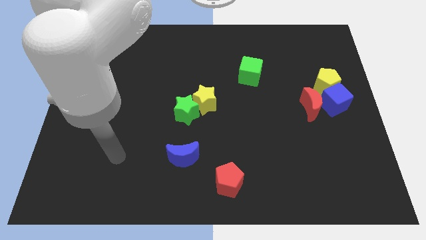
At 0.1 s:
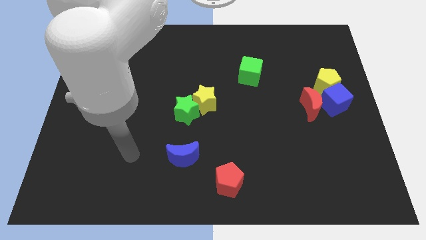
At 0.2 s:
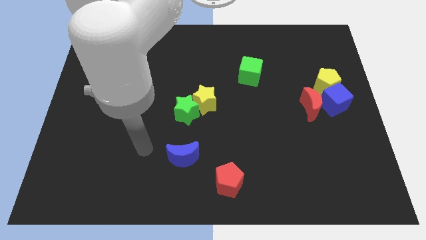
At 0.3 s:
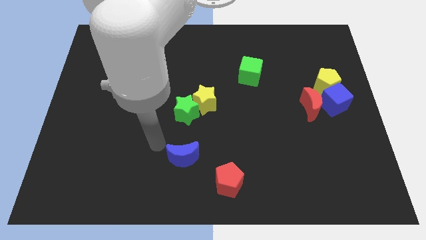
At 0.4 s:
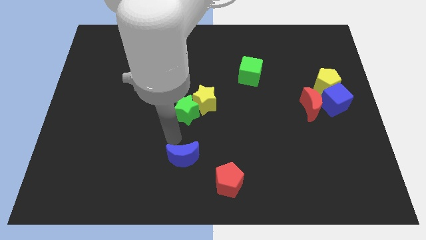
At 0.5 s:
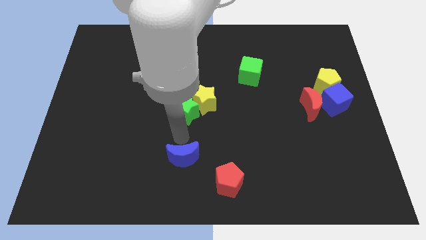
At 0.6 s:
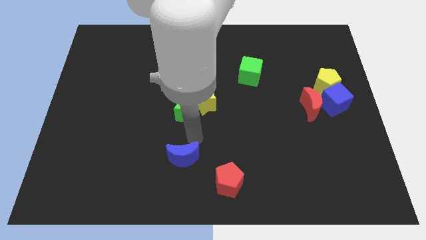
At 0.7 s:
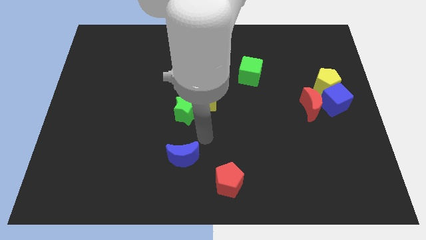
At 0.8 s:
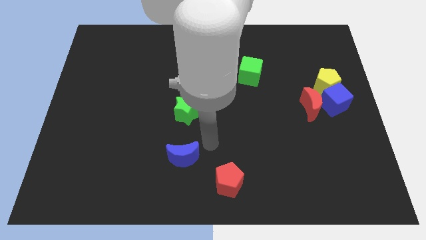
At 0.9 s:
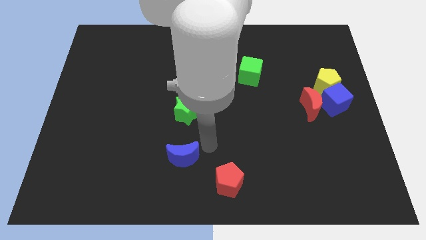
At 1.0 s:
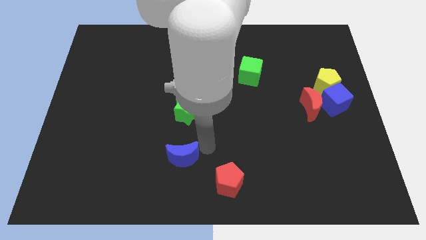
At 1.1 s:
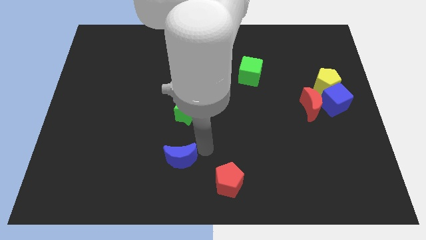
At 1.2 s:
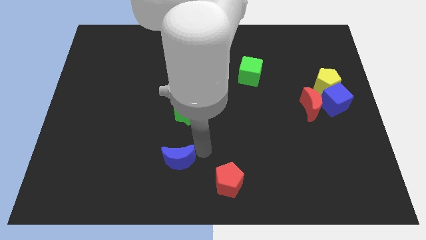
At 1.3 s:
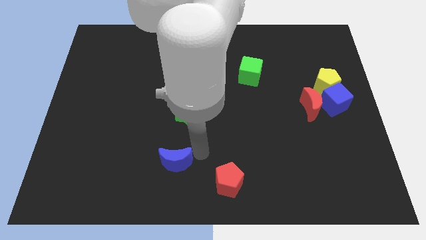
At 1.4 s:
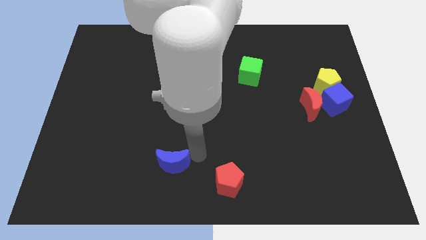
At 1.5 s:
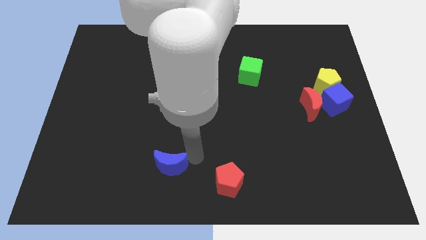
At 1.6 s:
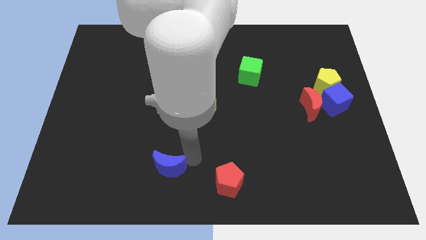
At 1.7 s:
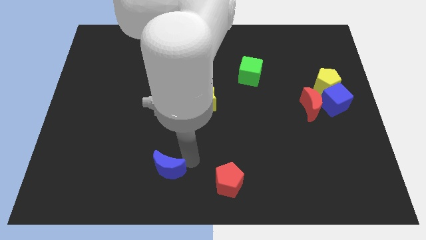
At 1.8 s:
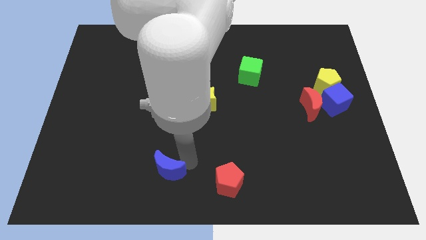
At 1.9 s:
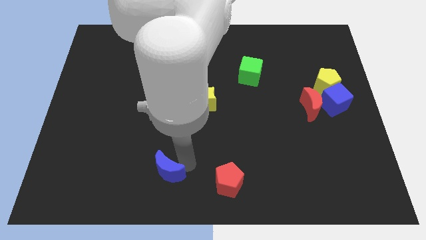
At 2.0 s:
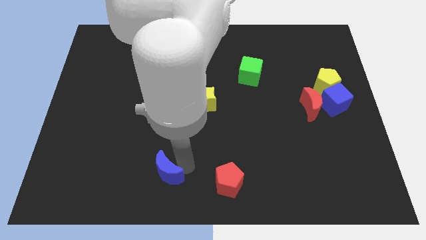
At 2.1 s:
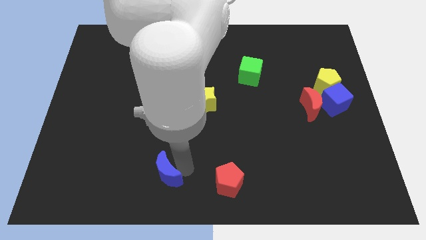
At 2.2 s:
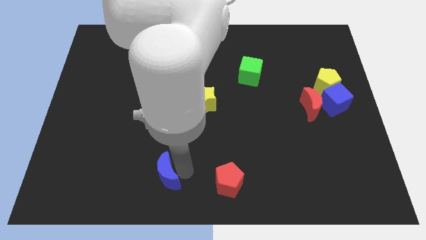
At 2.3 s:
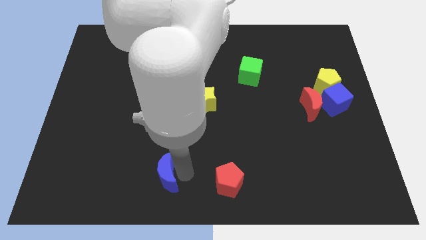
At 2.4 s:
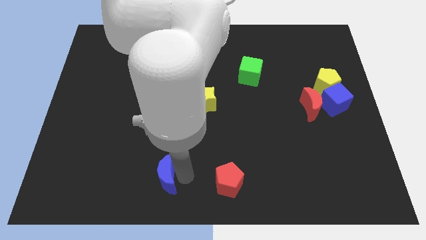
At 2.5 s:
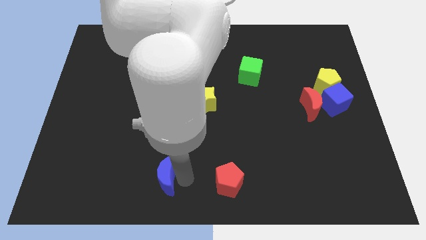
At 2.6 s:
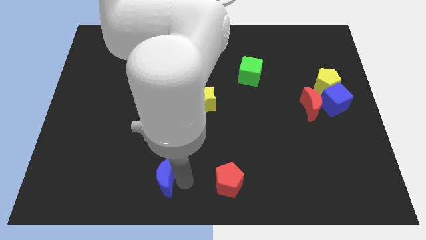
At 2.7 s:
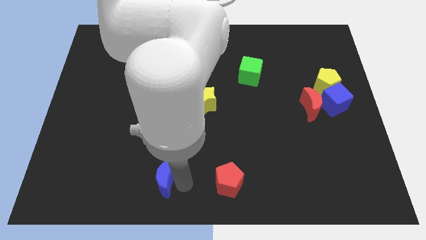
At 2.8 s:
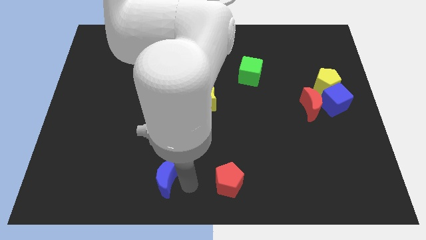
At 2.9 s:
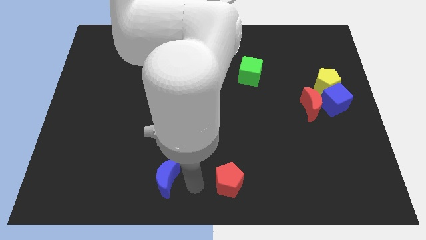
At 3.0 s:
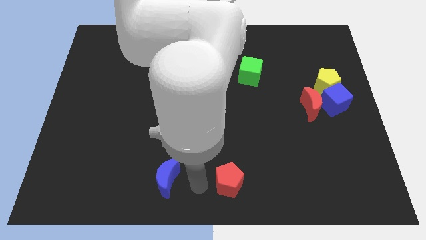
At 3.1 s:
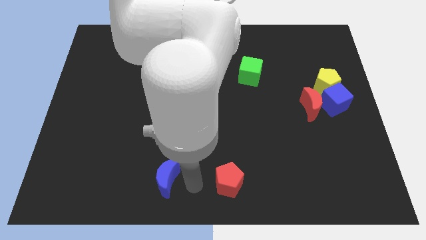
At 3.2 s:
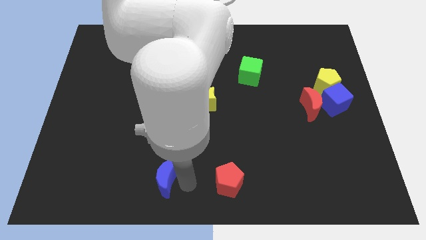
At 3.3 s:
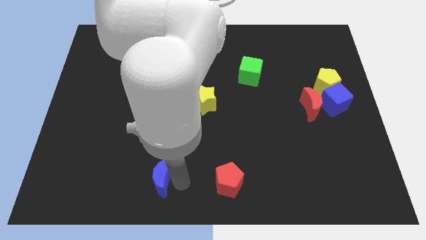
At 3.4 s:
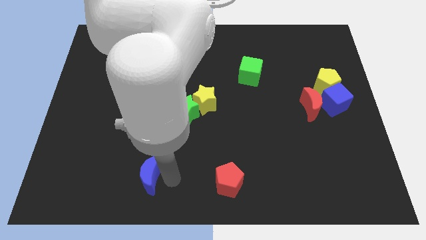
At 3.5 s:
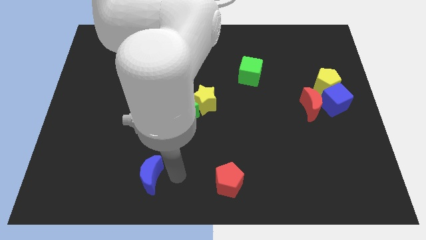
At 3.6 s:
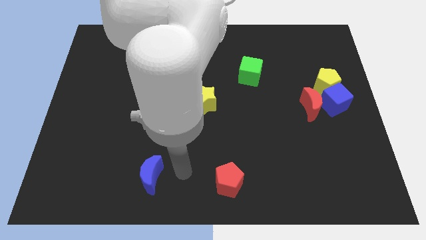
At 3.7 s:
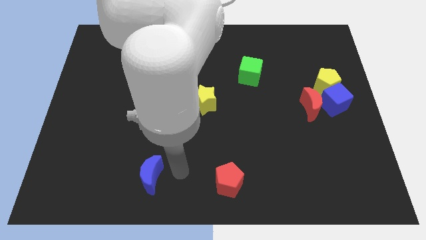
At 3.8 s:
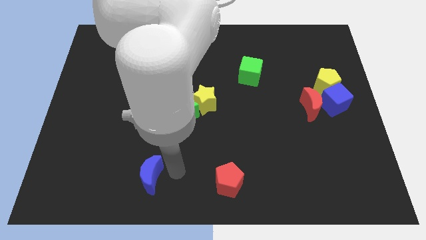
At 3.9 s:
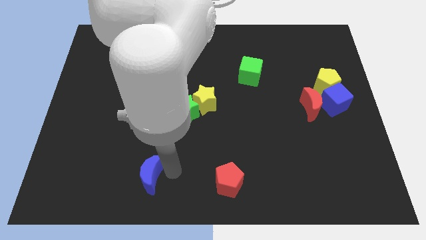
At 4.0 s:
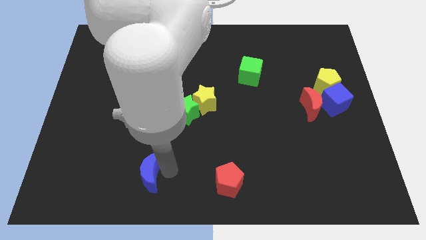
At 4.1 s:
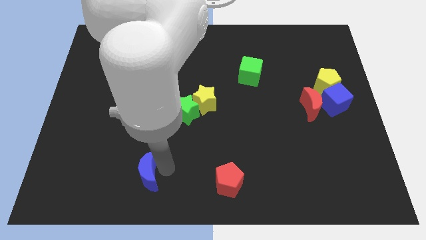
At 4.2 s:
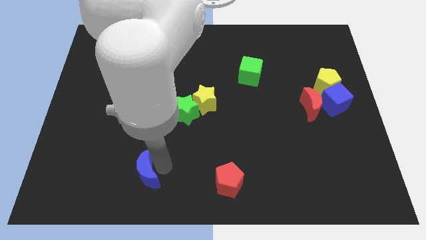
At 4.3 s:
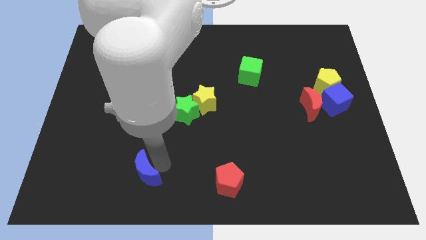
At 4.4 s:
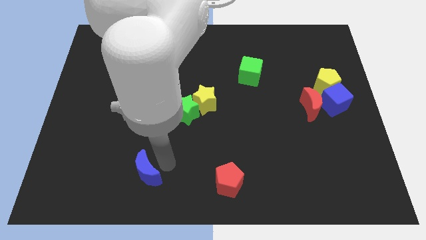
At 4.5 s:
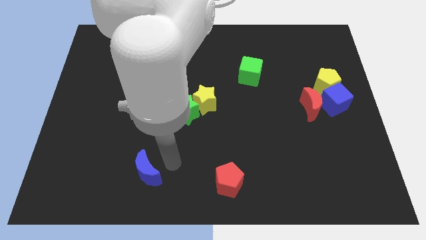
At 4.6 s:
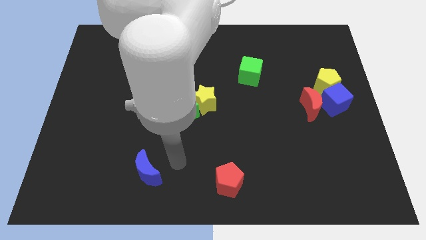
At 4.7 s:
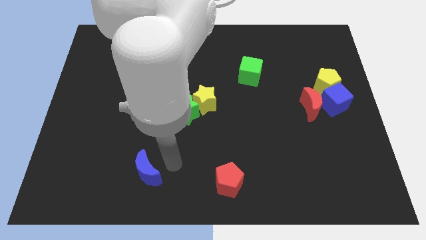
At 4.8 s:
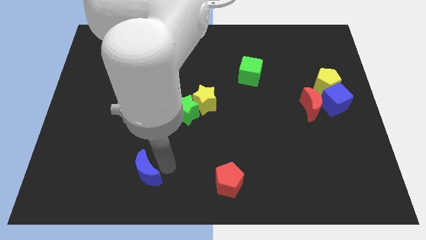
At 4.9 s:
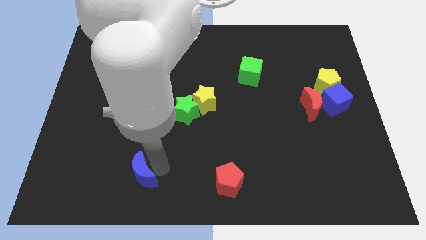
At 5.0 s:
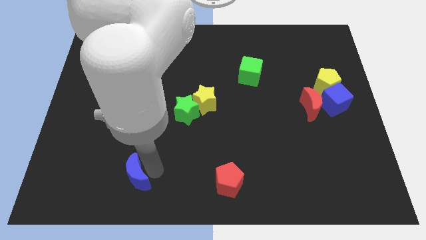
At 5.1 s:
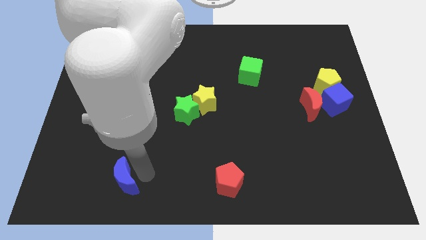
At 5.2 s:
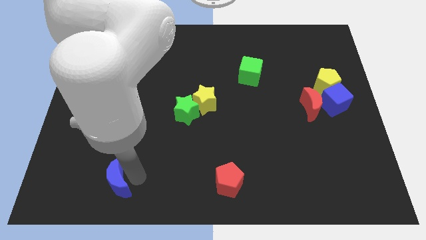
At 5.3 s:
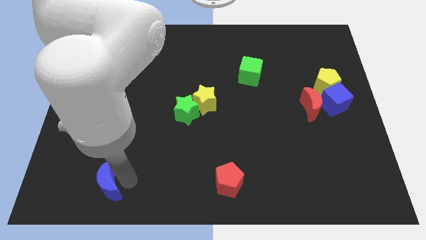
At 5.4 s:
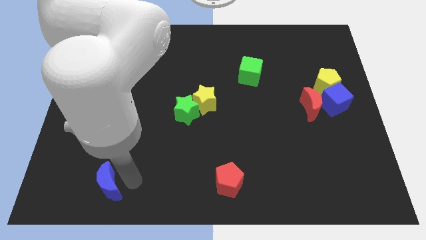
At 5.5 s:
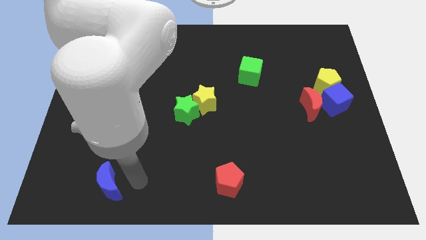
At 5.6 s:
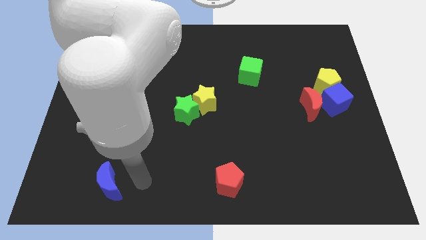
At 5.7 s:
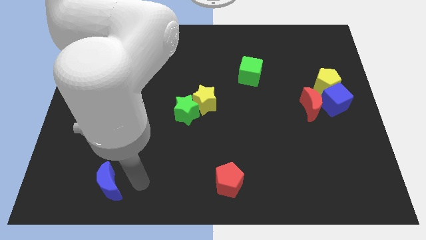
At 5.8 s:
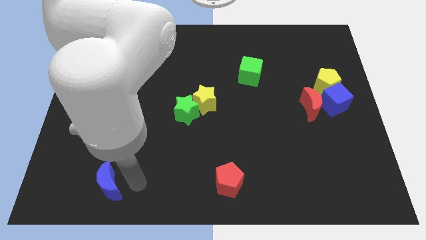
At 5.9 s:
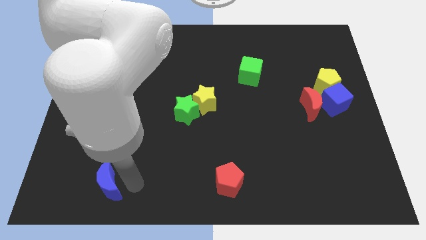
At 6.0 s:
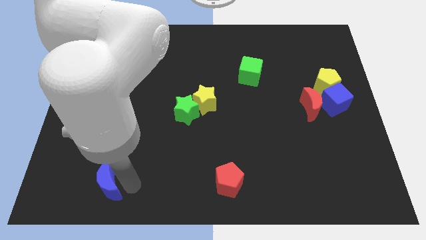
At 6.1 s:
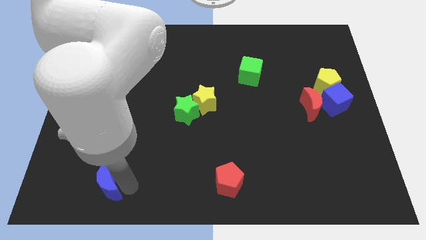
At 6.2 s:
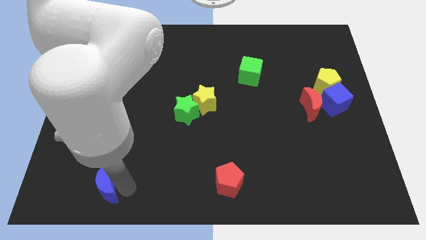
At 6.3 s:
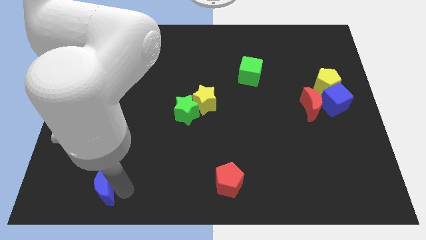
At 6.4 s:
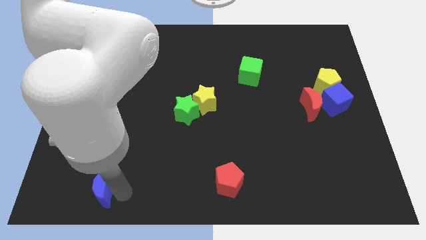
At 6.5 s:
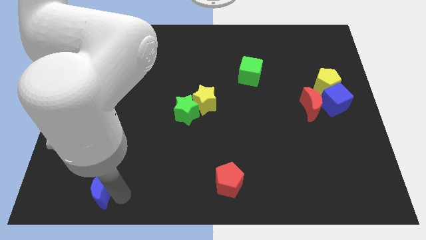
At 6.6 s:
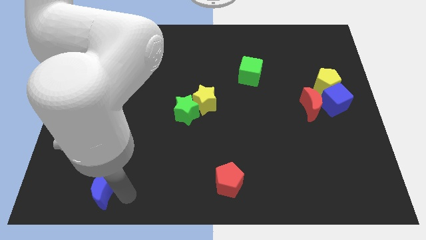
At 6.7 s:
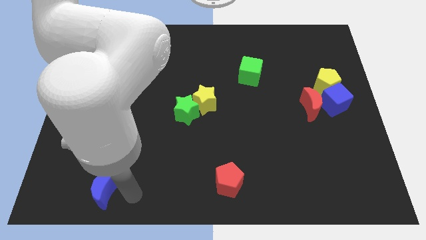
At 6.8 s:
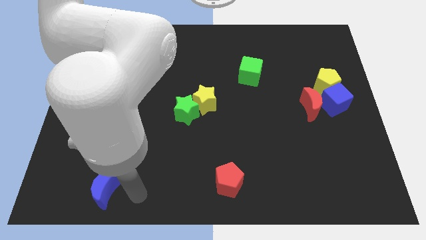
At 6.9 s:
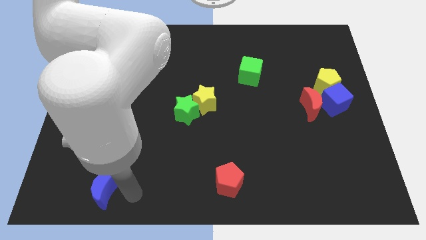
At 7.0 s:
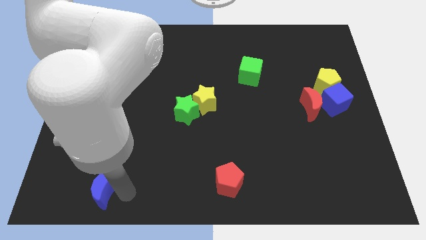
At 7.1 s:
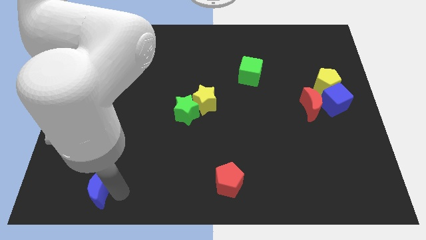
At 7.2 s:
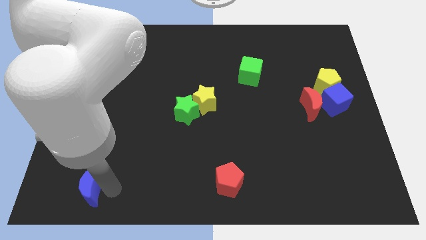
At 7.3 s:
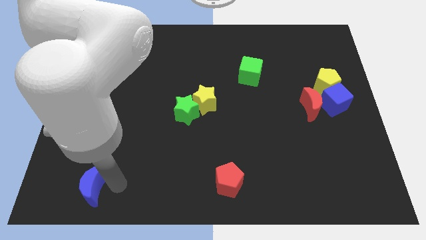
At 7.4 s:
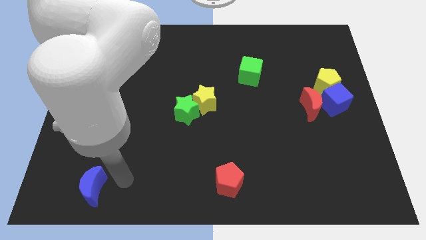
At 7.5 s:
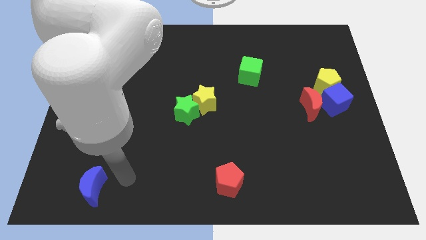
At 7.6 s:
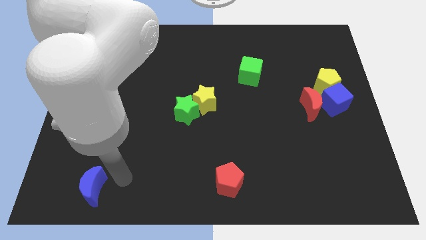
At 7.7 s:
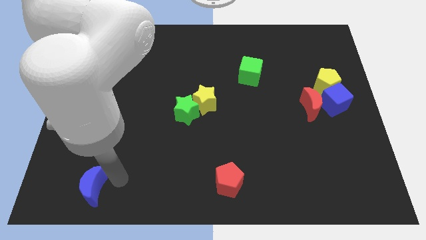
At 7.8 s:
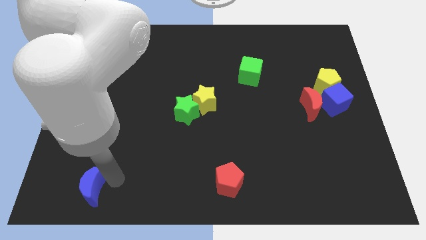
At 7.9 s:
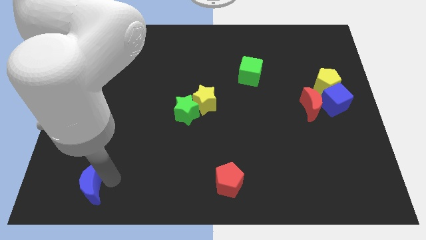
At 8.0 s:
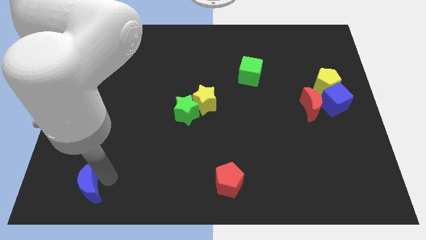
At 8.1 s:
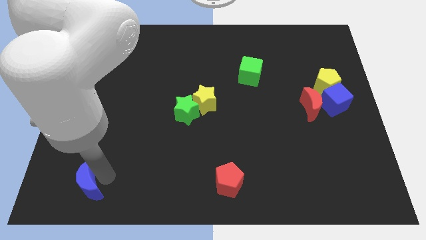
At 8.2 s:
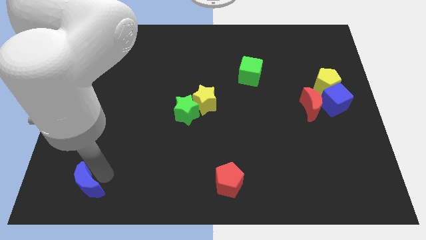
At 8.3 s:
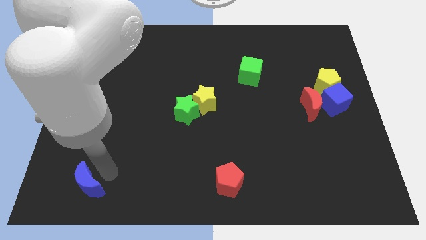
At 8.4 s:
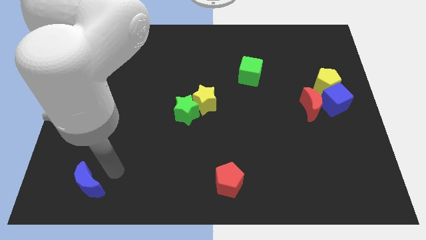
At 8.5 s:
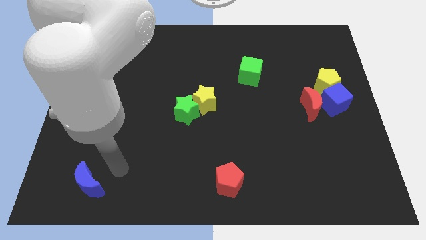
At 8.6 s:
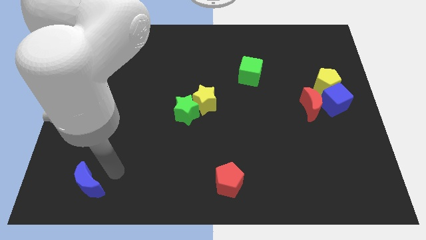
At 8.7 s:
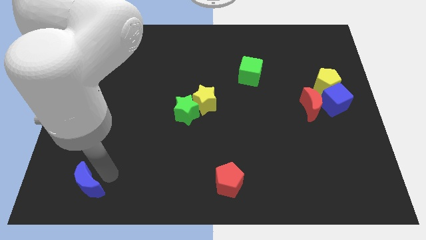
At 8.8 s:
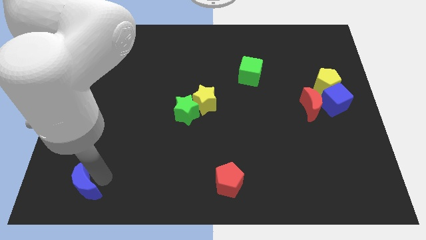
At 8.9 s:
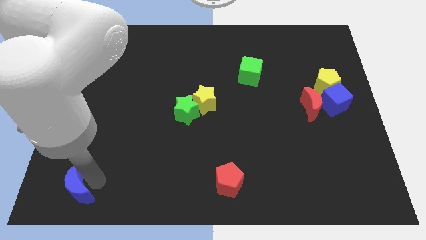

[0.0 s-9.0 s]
put the blue moon to the bottom left corner
